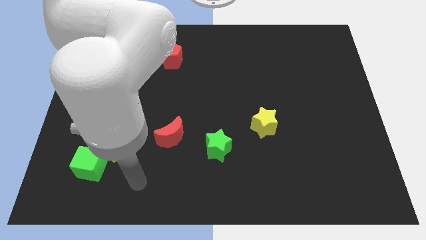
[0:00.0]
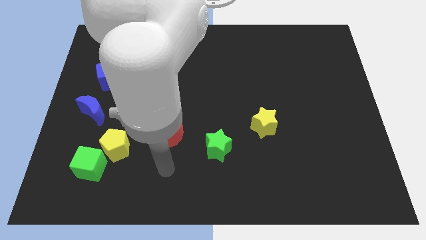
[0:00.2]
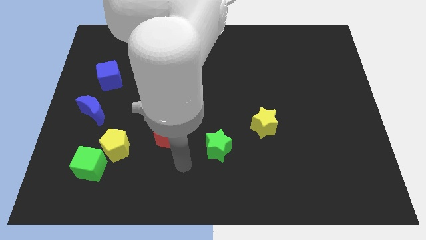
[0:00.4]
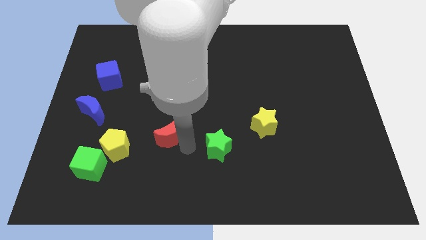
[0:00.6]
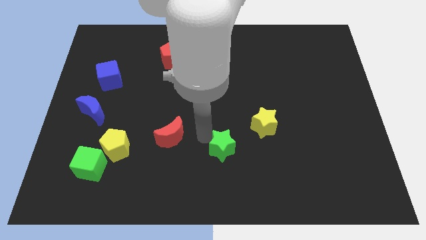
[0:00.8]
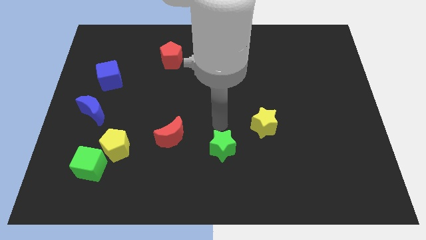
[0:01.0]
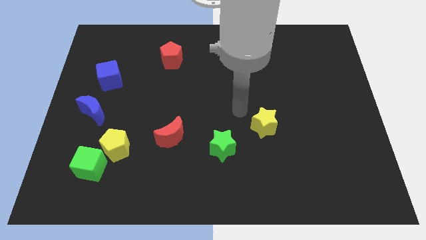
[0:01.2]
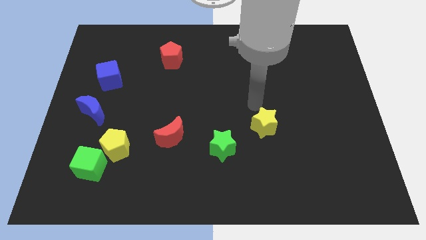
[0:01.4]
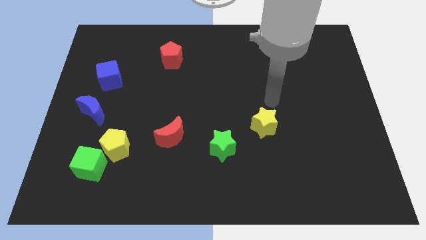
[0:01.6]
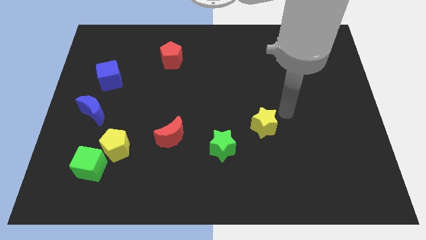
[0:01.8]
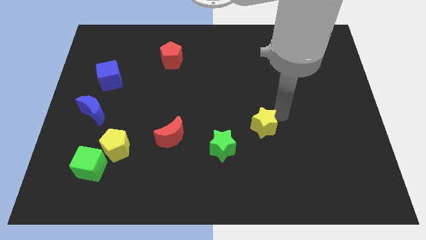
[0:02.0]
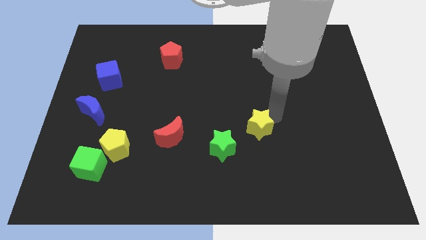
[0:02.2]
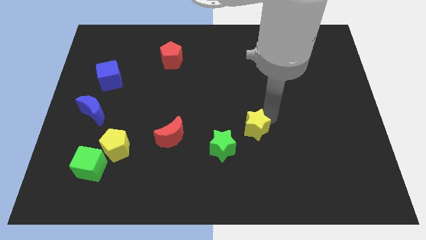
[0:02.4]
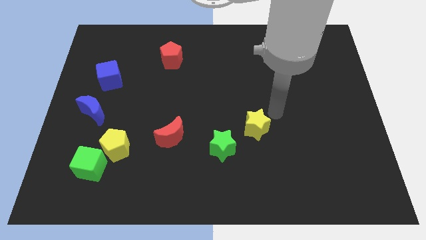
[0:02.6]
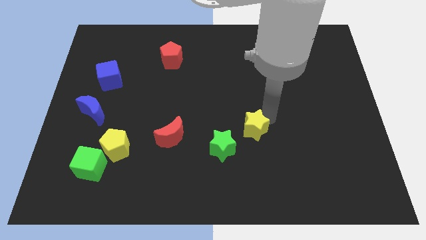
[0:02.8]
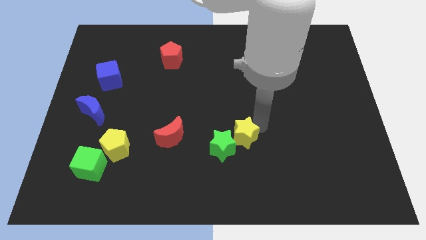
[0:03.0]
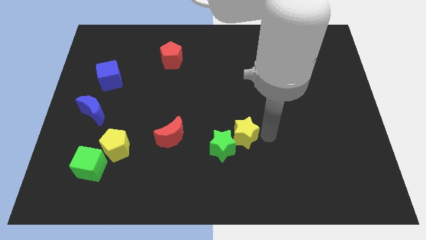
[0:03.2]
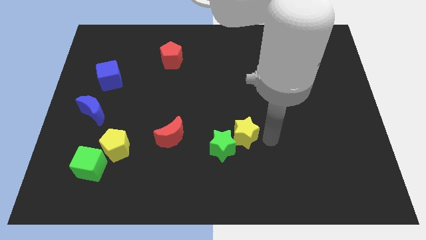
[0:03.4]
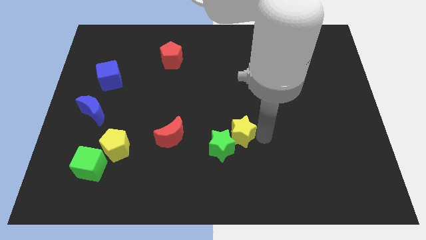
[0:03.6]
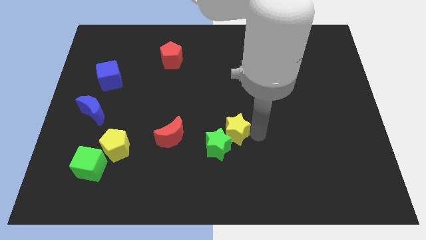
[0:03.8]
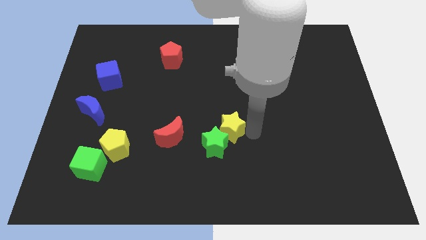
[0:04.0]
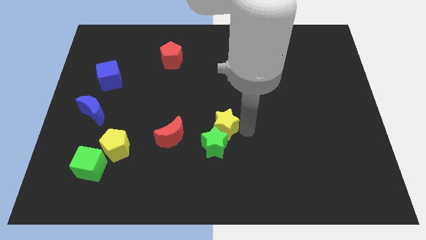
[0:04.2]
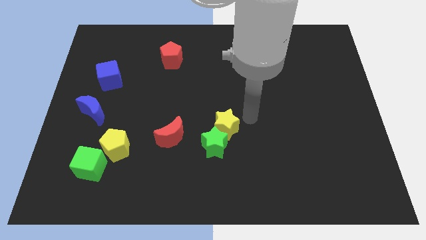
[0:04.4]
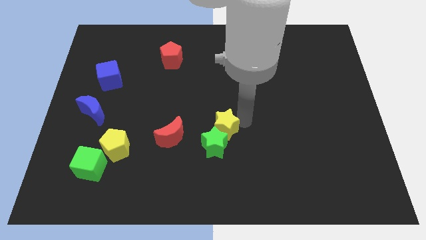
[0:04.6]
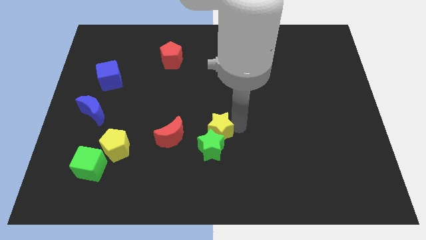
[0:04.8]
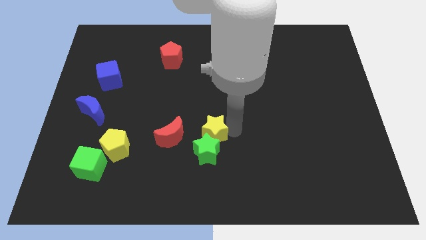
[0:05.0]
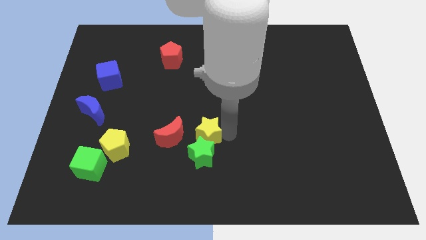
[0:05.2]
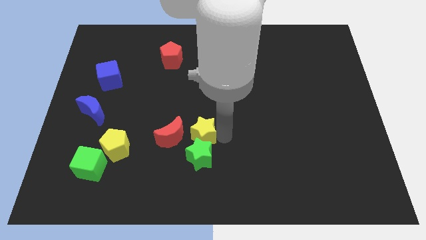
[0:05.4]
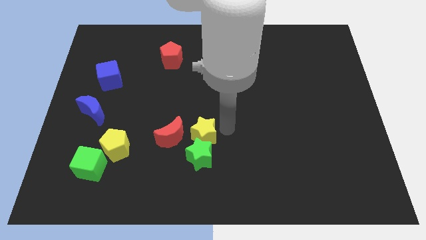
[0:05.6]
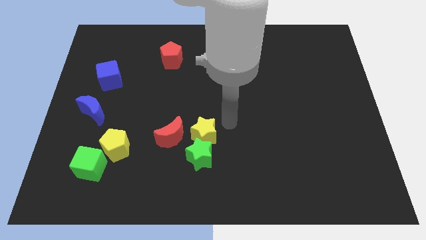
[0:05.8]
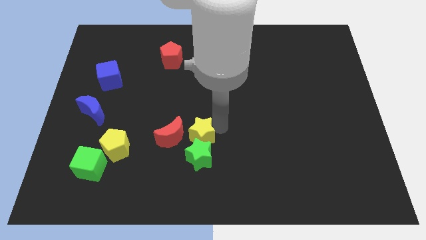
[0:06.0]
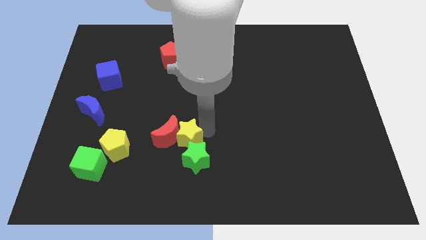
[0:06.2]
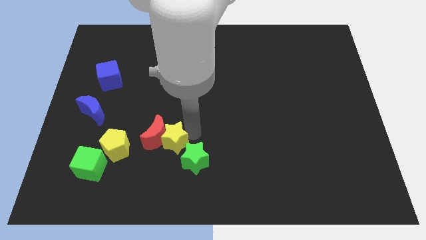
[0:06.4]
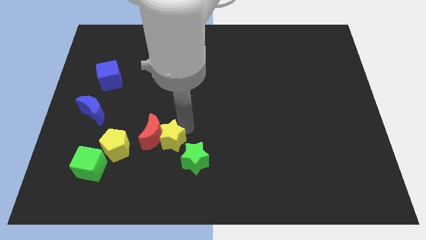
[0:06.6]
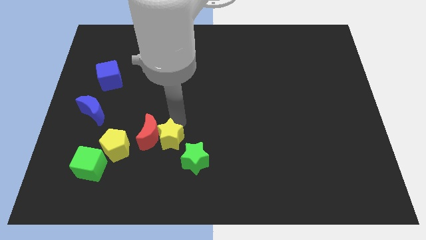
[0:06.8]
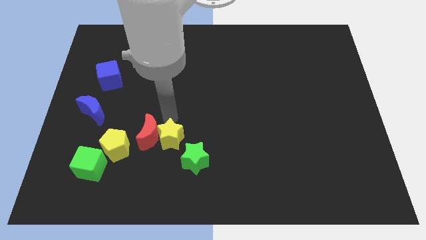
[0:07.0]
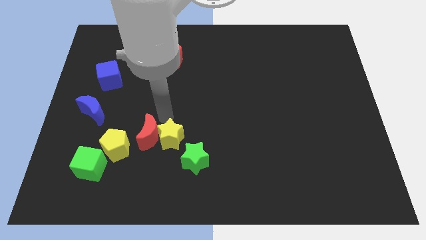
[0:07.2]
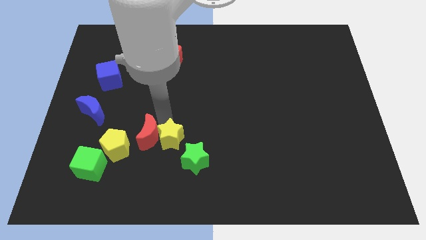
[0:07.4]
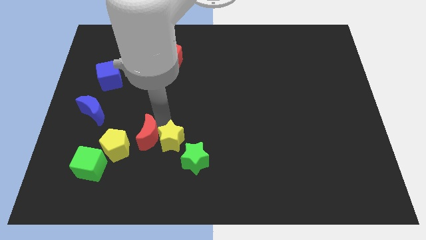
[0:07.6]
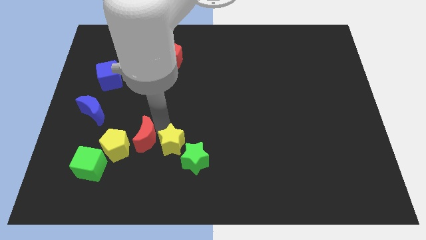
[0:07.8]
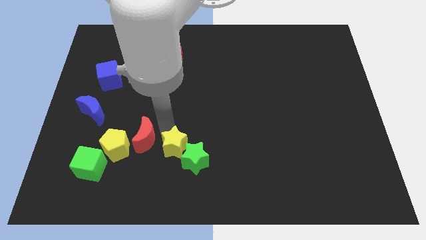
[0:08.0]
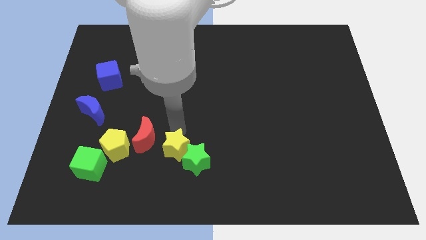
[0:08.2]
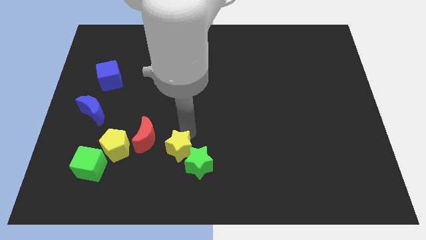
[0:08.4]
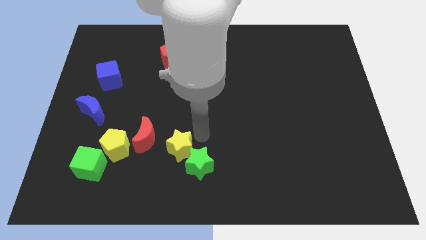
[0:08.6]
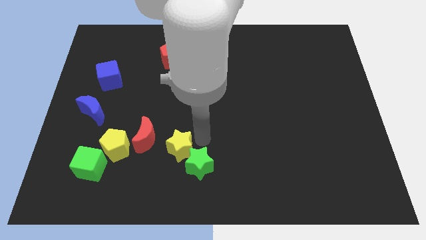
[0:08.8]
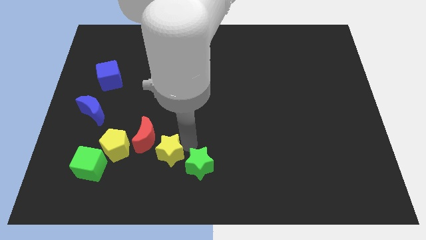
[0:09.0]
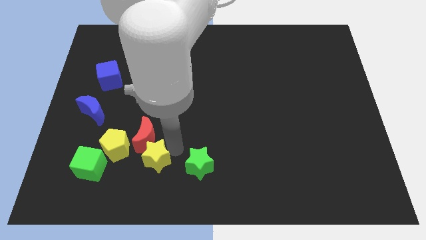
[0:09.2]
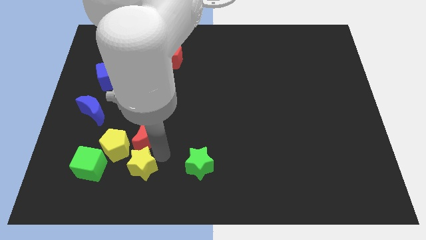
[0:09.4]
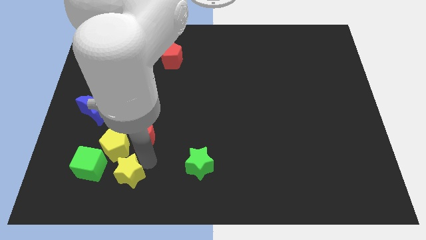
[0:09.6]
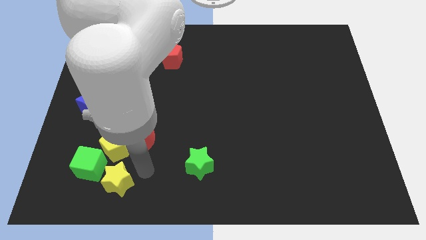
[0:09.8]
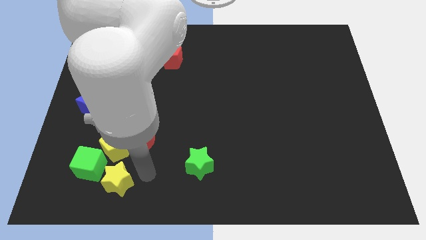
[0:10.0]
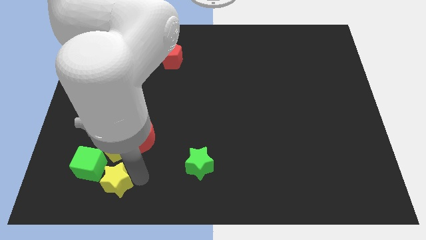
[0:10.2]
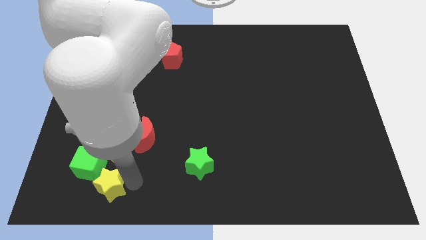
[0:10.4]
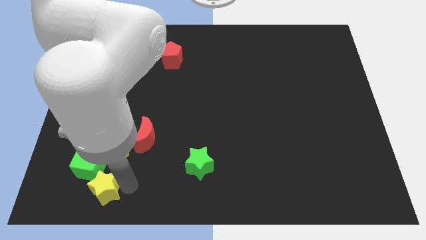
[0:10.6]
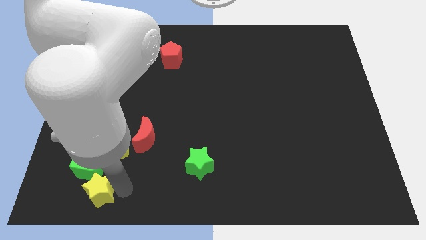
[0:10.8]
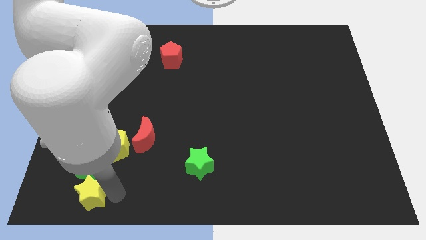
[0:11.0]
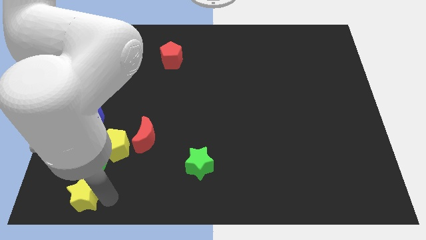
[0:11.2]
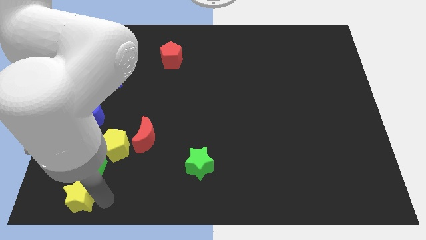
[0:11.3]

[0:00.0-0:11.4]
put the yellow star to the lower left corner
